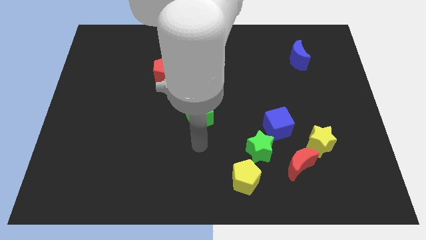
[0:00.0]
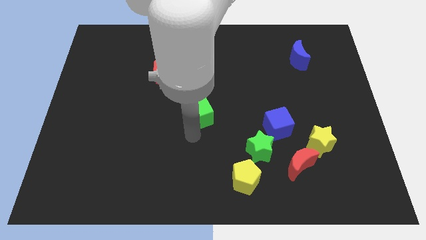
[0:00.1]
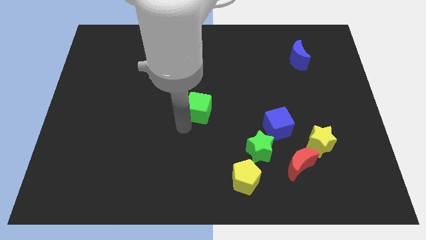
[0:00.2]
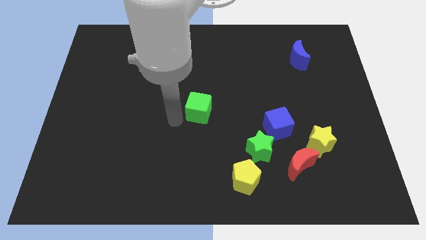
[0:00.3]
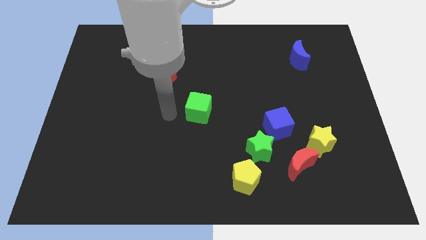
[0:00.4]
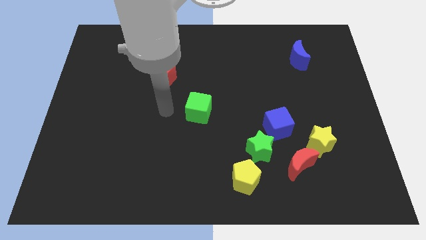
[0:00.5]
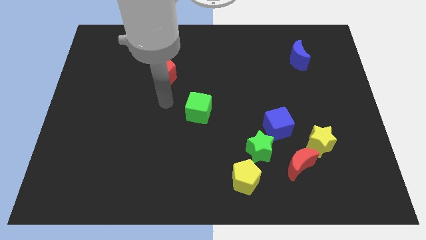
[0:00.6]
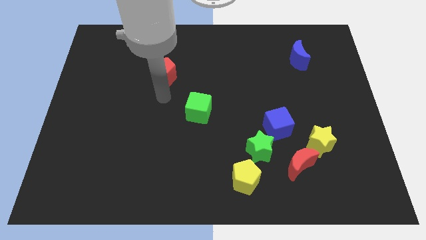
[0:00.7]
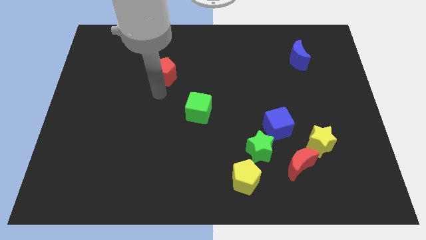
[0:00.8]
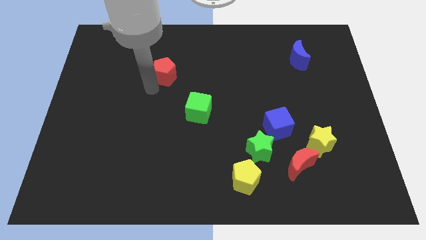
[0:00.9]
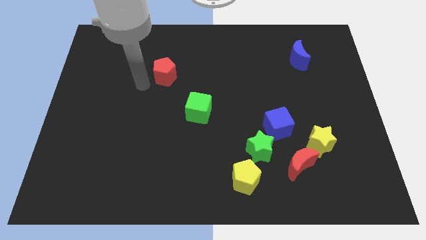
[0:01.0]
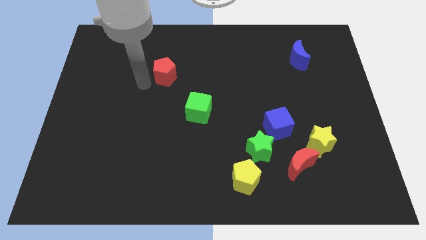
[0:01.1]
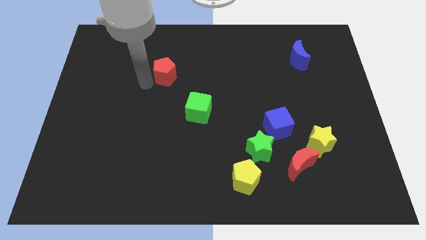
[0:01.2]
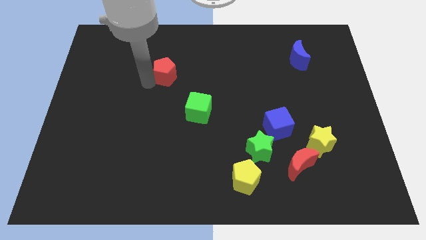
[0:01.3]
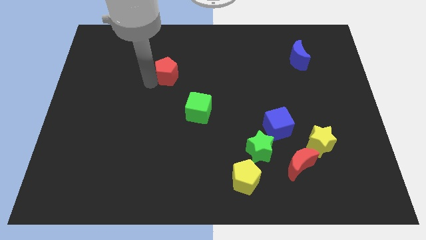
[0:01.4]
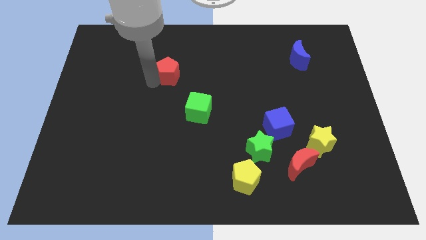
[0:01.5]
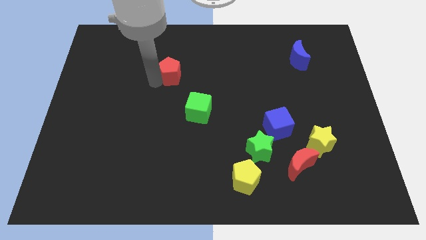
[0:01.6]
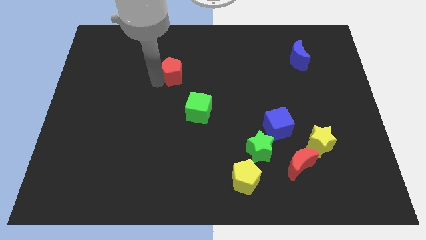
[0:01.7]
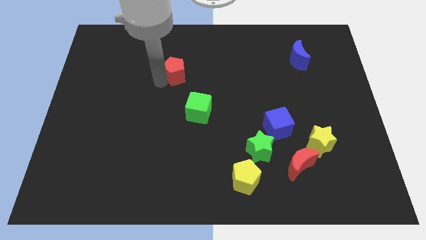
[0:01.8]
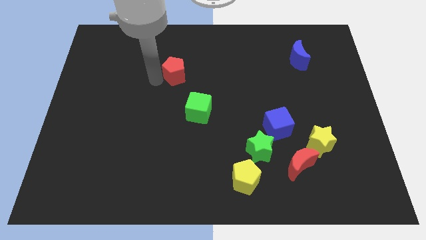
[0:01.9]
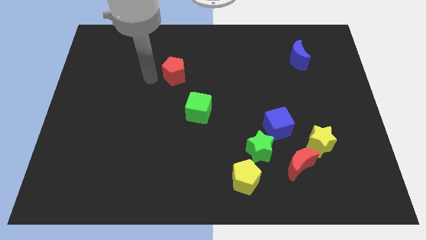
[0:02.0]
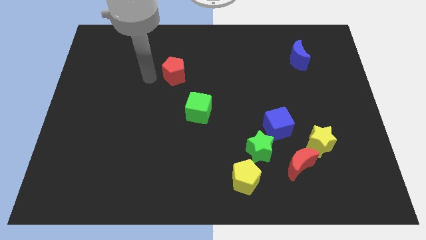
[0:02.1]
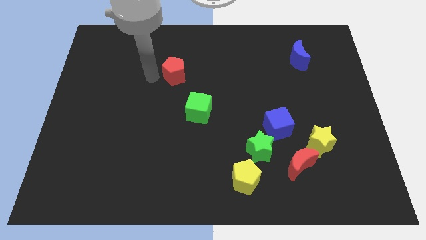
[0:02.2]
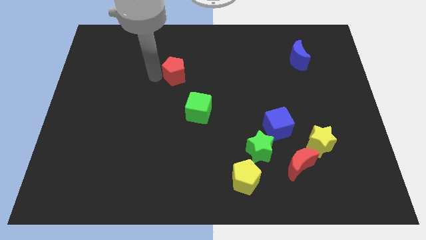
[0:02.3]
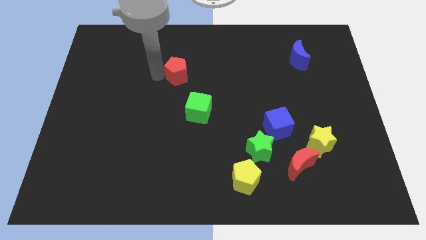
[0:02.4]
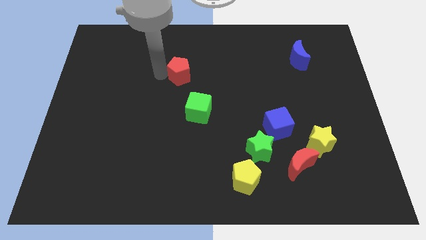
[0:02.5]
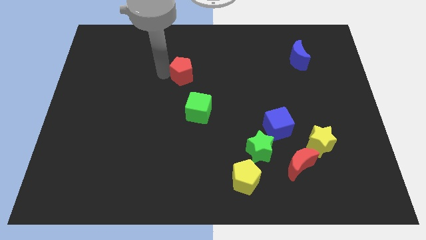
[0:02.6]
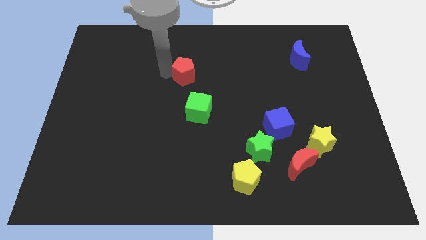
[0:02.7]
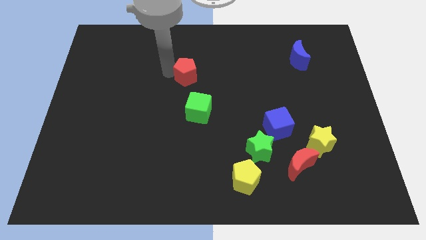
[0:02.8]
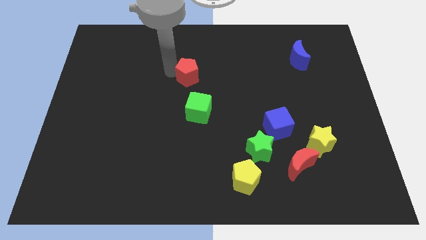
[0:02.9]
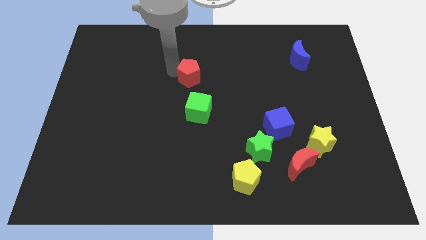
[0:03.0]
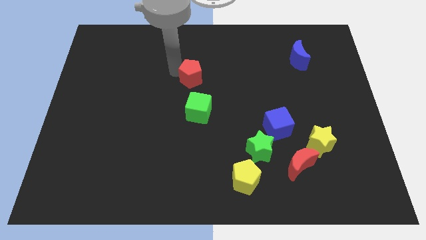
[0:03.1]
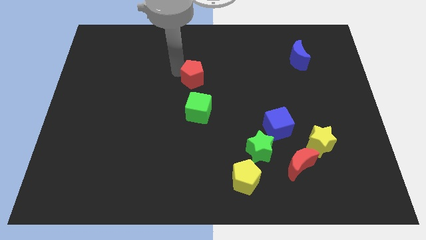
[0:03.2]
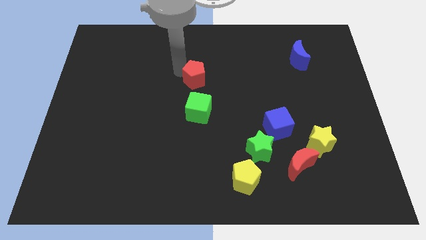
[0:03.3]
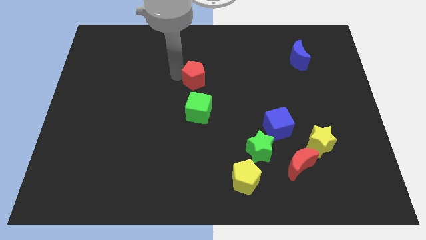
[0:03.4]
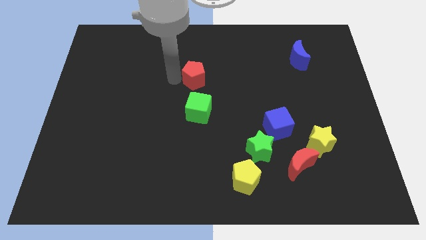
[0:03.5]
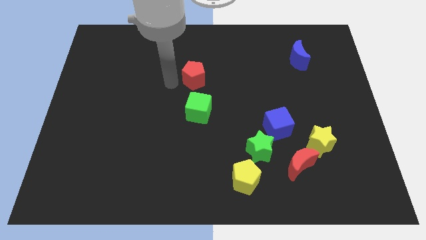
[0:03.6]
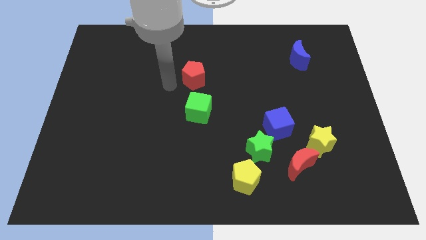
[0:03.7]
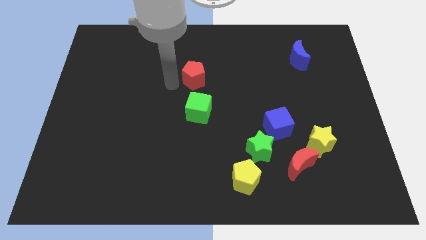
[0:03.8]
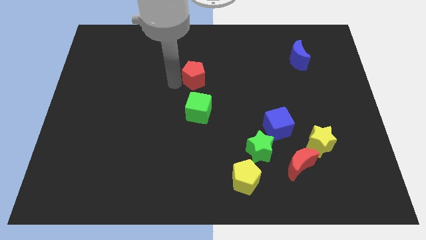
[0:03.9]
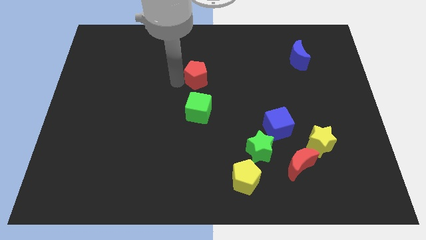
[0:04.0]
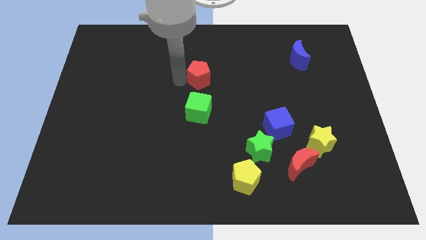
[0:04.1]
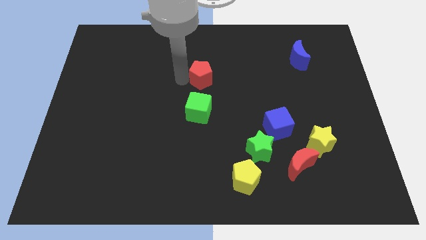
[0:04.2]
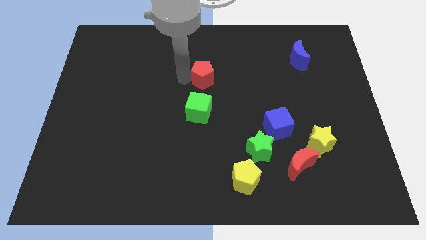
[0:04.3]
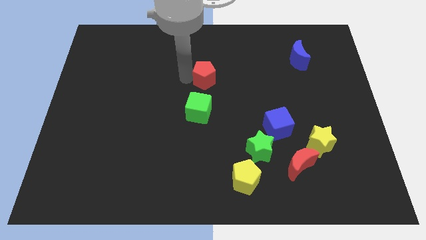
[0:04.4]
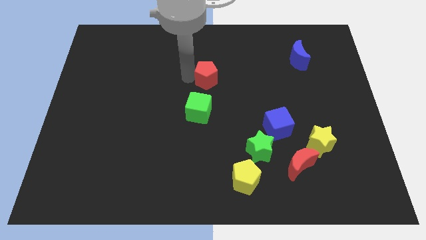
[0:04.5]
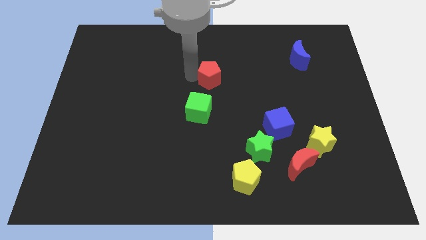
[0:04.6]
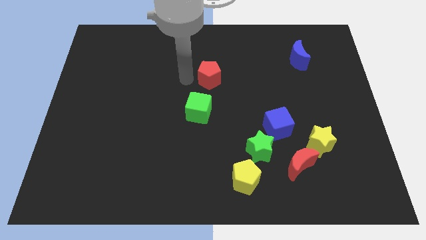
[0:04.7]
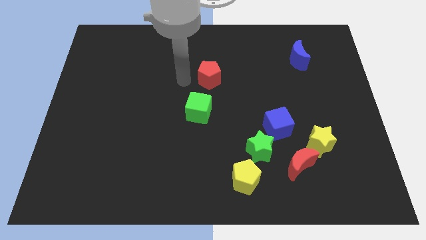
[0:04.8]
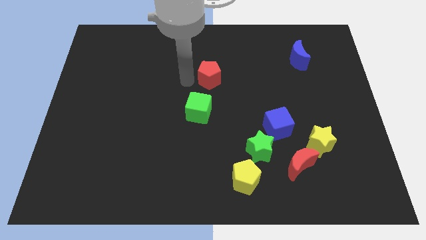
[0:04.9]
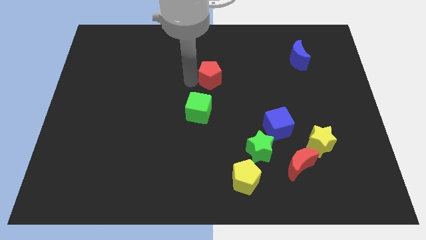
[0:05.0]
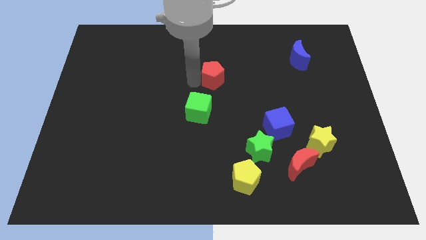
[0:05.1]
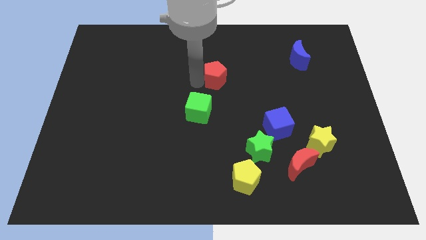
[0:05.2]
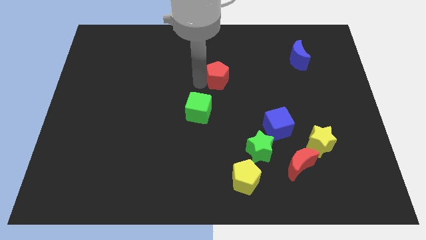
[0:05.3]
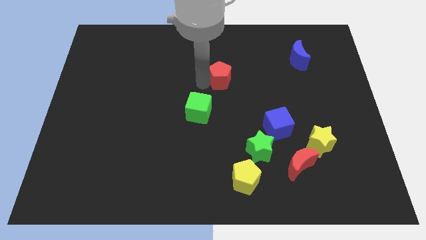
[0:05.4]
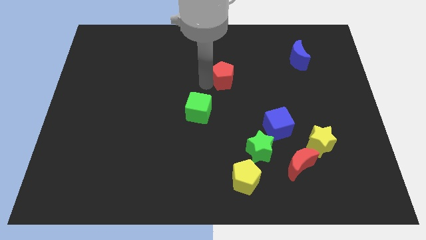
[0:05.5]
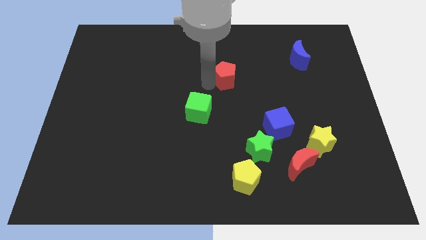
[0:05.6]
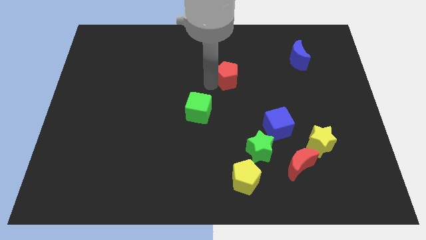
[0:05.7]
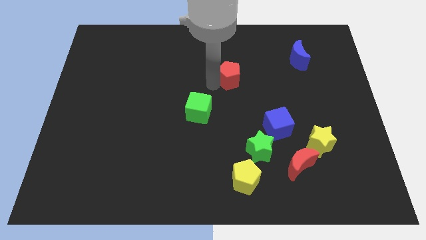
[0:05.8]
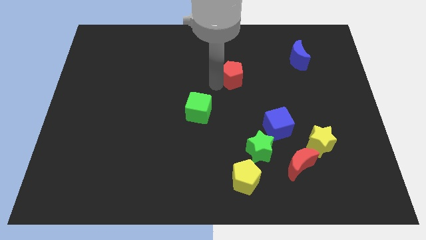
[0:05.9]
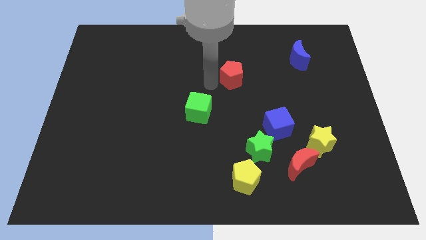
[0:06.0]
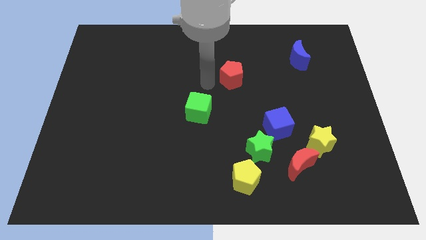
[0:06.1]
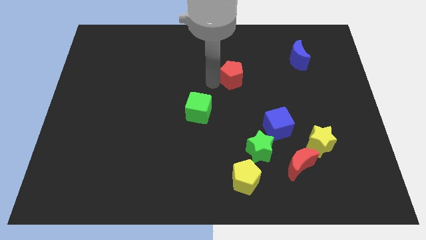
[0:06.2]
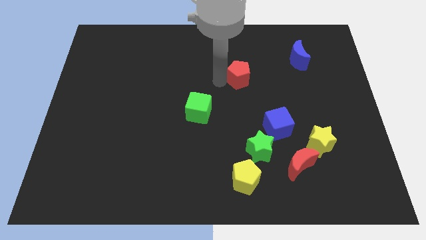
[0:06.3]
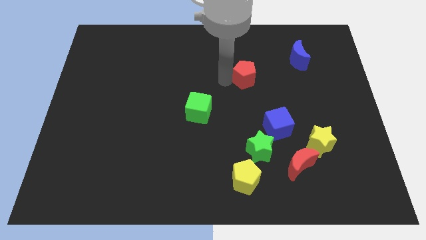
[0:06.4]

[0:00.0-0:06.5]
push the red pentagon right

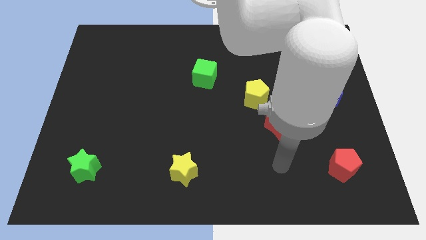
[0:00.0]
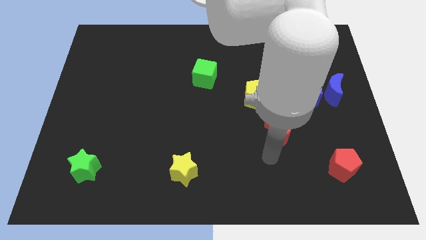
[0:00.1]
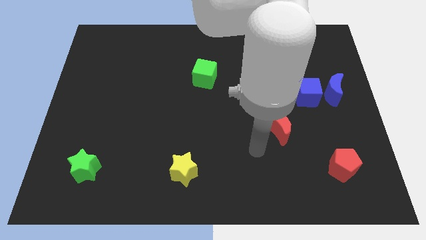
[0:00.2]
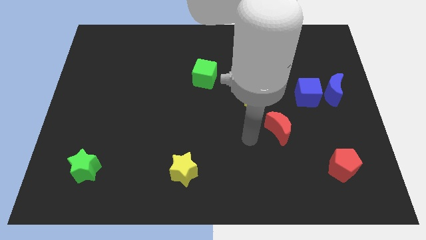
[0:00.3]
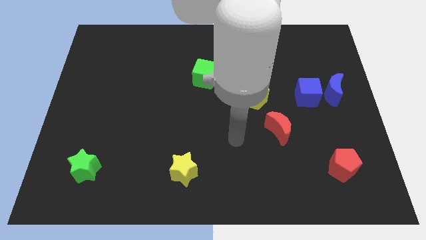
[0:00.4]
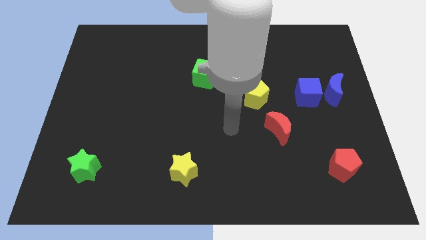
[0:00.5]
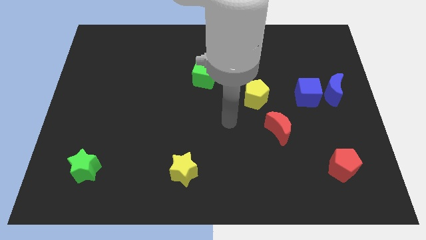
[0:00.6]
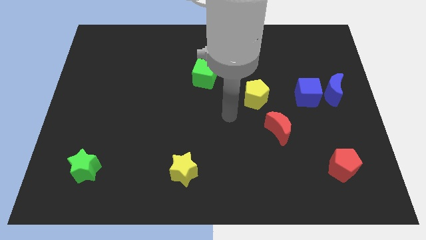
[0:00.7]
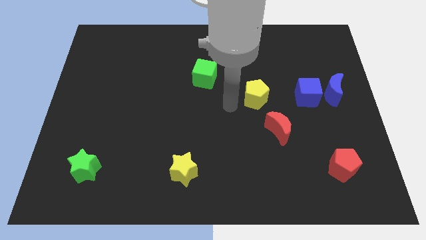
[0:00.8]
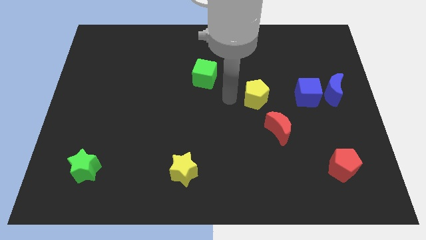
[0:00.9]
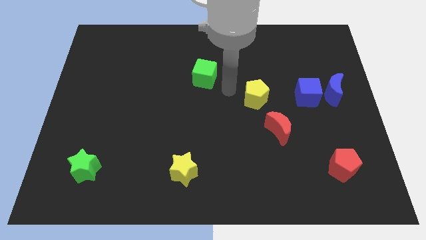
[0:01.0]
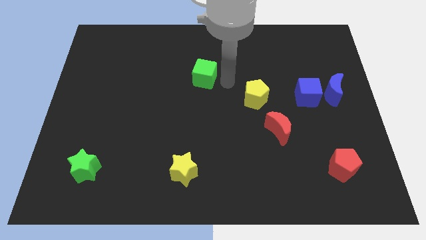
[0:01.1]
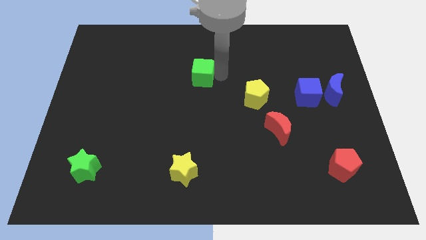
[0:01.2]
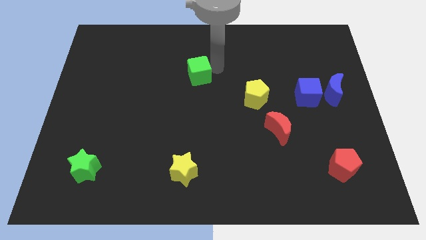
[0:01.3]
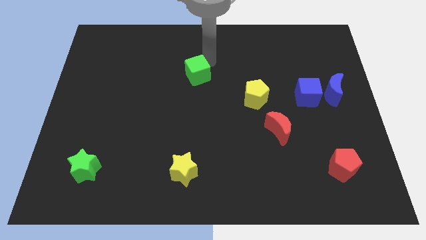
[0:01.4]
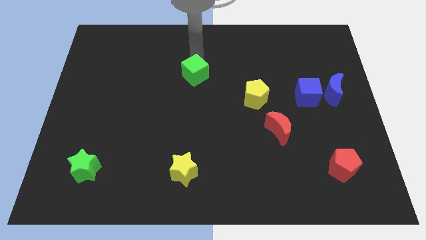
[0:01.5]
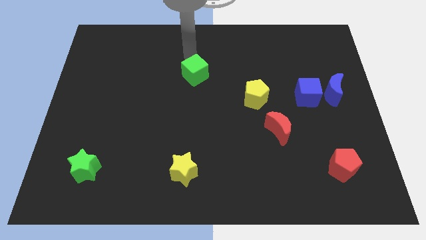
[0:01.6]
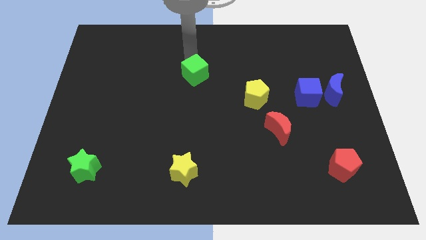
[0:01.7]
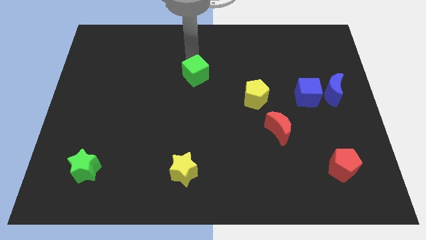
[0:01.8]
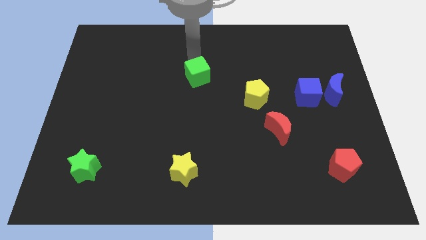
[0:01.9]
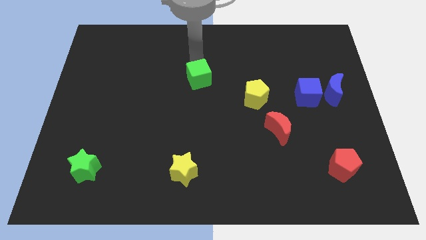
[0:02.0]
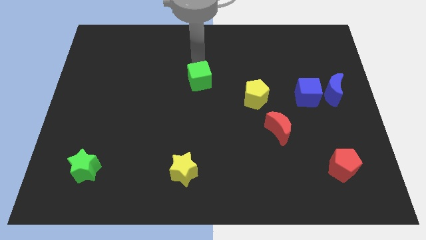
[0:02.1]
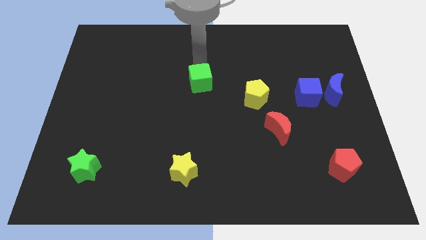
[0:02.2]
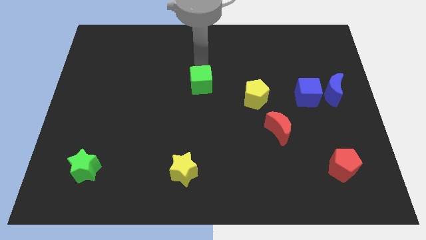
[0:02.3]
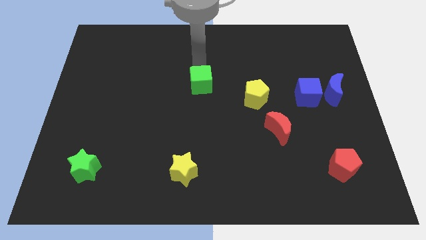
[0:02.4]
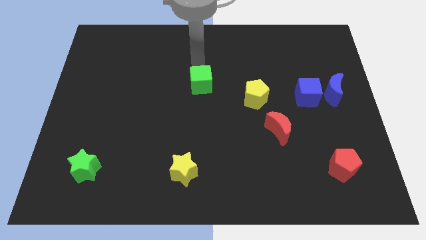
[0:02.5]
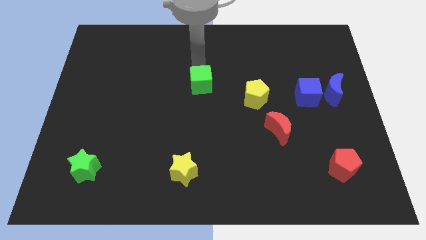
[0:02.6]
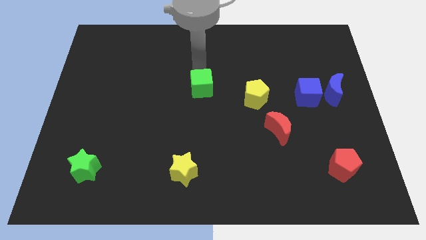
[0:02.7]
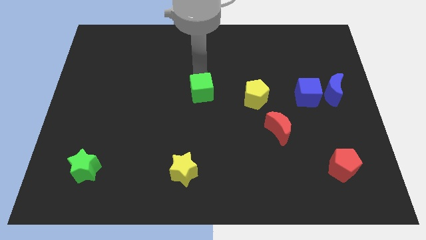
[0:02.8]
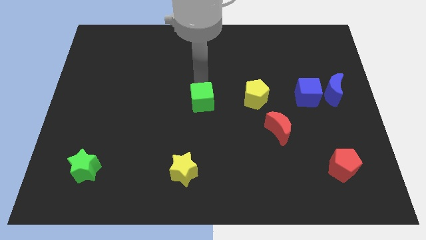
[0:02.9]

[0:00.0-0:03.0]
move the green cube somewhat downwards
